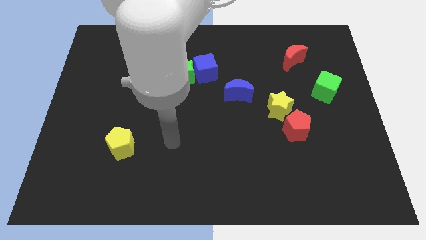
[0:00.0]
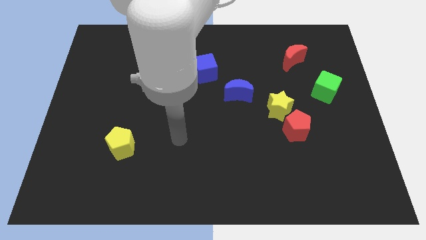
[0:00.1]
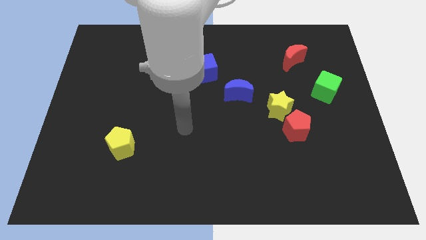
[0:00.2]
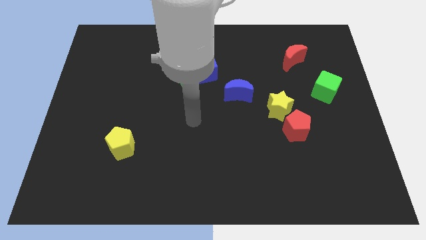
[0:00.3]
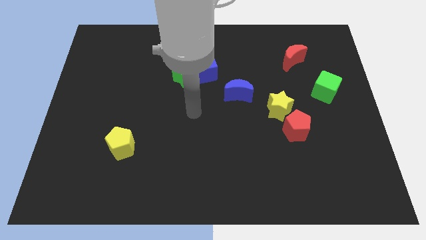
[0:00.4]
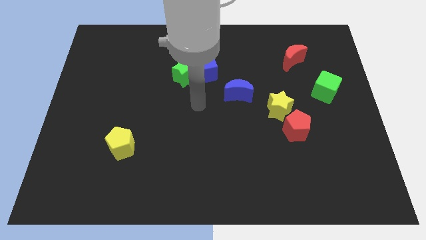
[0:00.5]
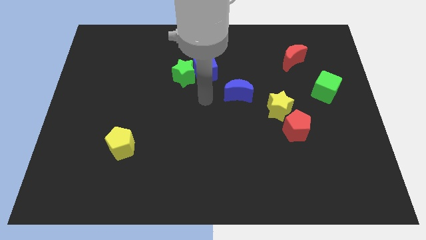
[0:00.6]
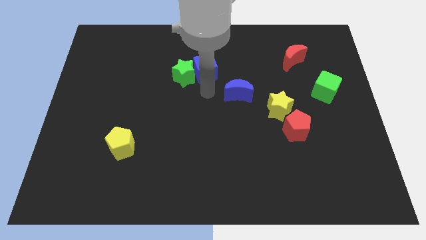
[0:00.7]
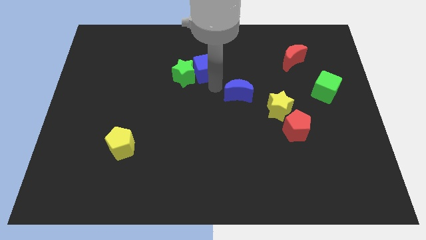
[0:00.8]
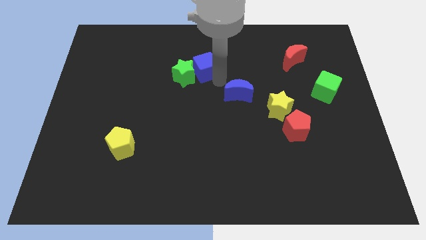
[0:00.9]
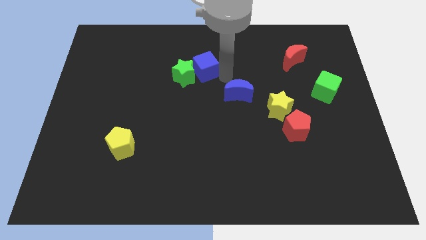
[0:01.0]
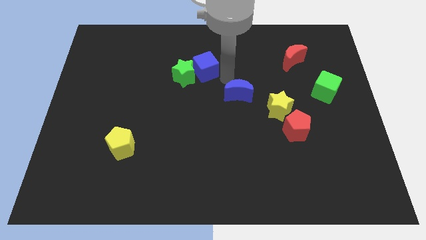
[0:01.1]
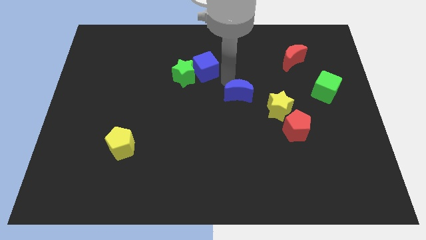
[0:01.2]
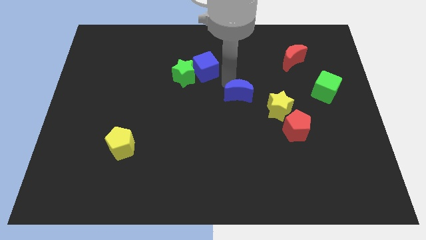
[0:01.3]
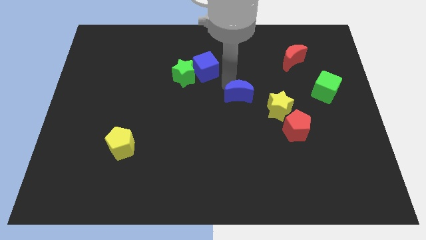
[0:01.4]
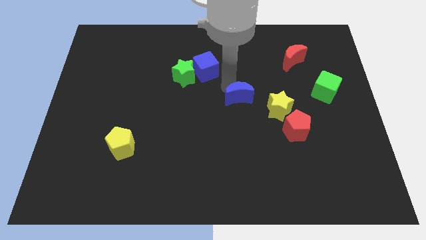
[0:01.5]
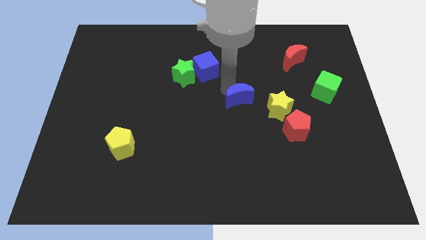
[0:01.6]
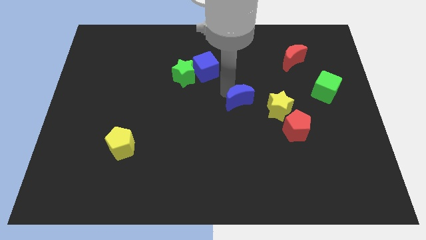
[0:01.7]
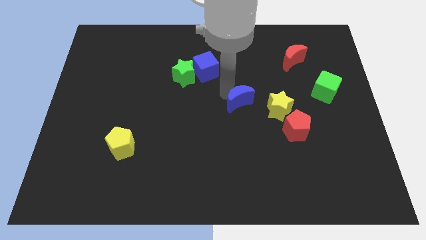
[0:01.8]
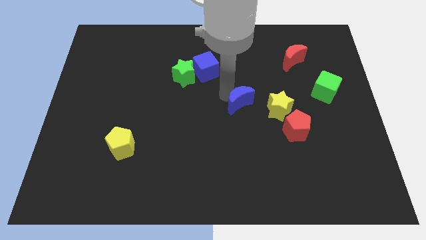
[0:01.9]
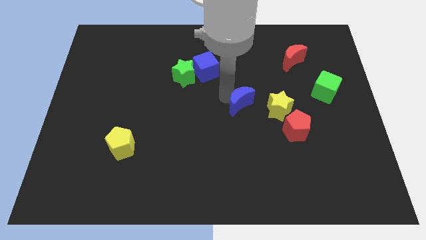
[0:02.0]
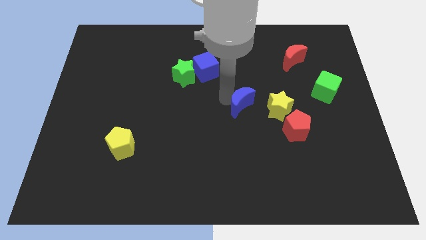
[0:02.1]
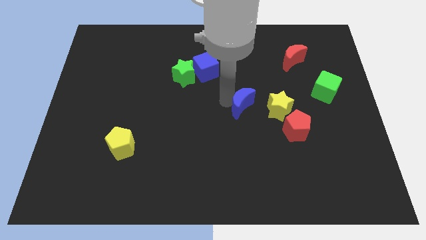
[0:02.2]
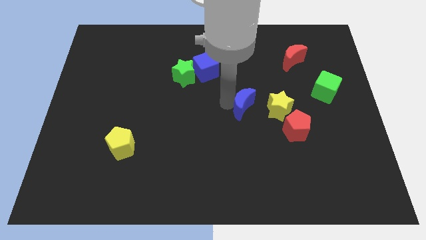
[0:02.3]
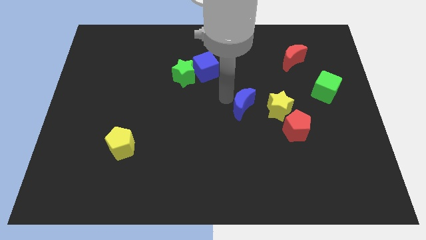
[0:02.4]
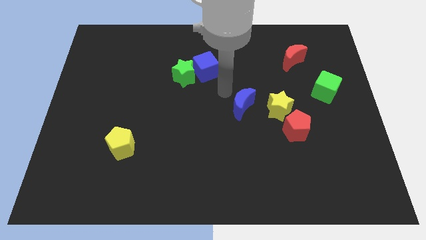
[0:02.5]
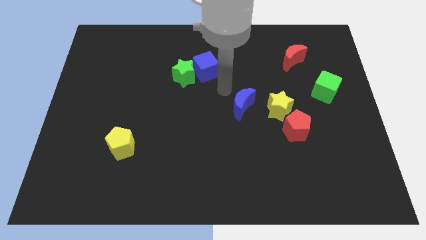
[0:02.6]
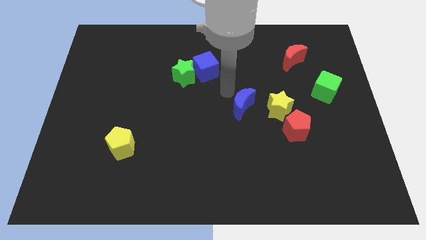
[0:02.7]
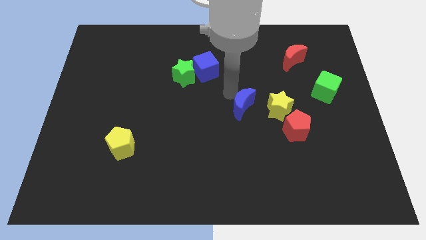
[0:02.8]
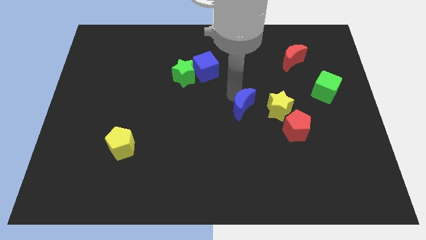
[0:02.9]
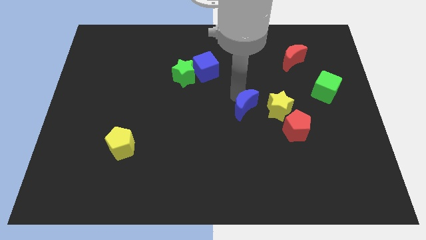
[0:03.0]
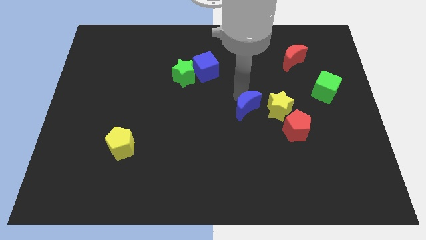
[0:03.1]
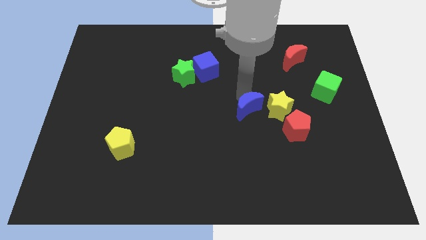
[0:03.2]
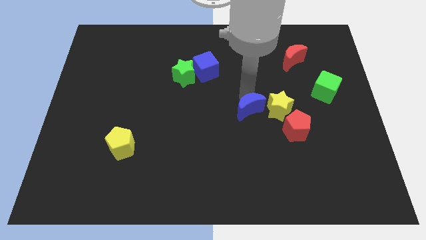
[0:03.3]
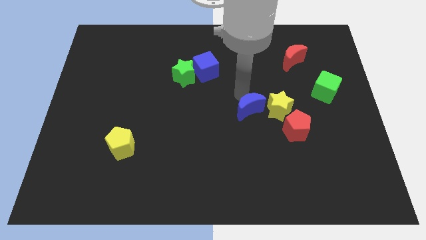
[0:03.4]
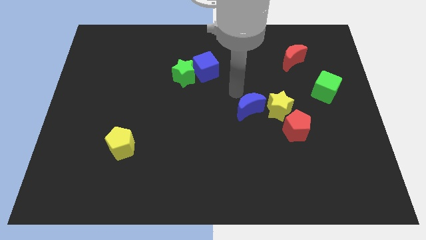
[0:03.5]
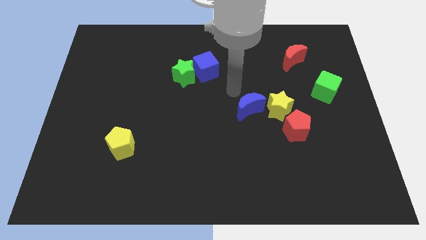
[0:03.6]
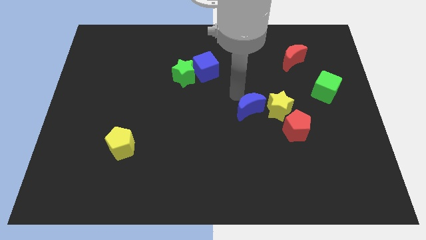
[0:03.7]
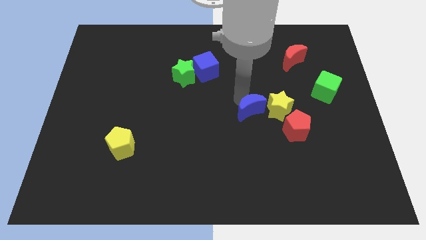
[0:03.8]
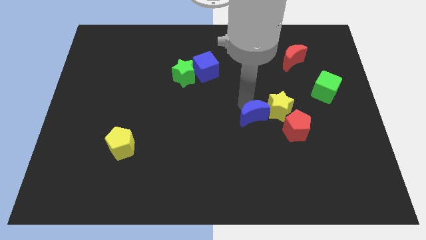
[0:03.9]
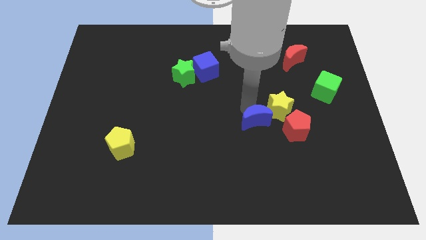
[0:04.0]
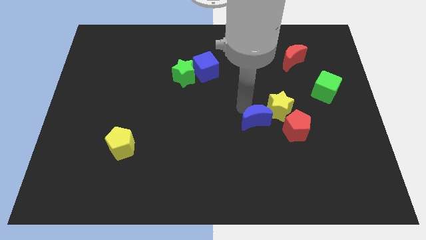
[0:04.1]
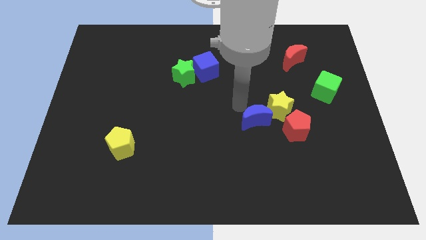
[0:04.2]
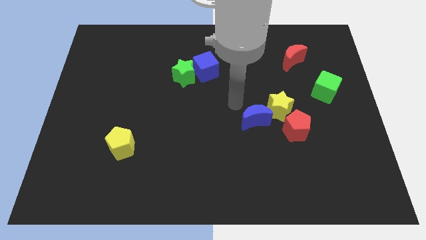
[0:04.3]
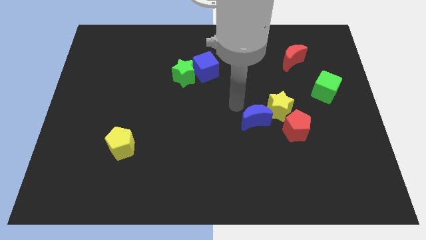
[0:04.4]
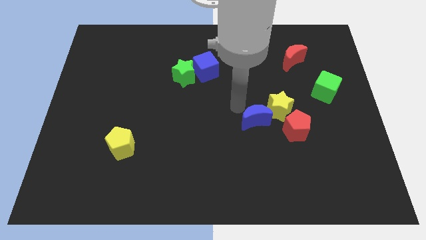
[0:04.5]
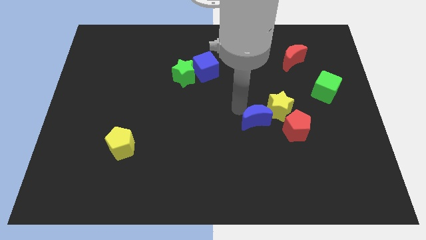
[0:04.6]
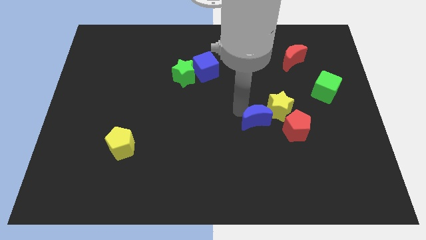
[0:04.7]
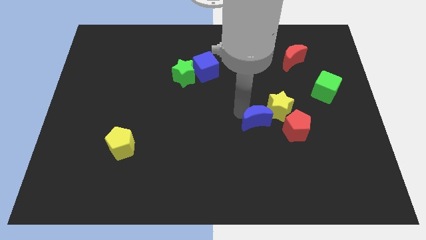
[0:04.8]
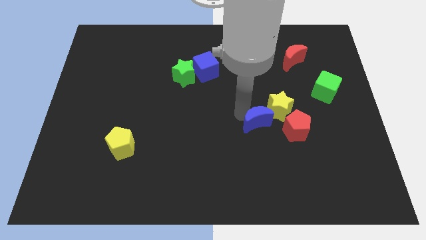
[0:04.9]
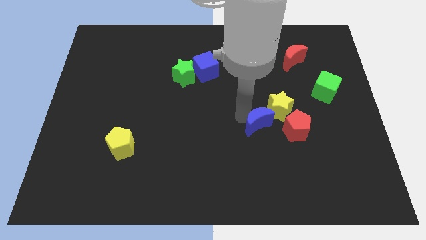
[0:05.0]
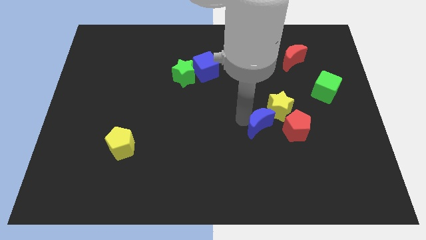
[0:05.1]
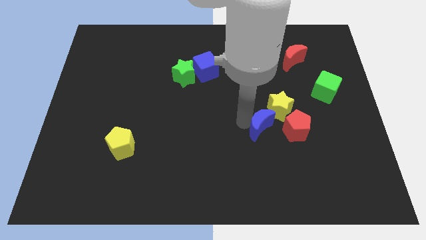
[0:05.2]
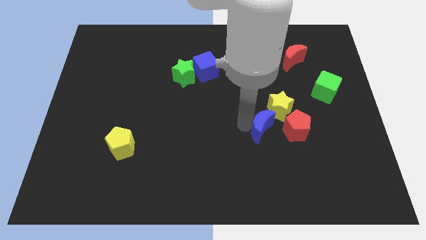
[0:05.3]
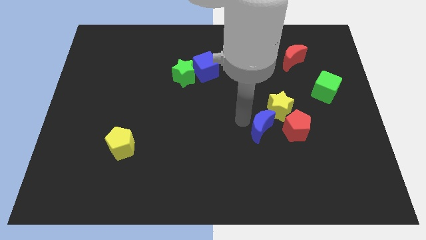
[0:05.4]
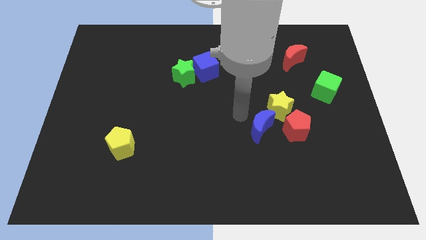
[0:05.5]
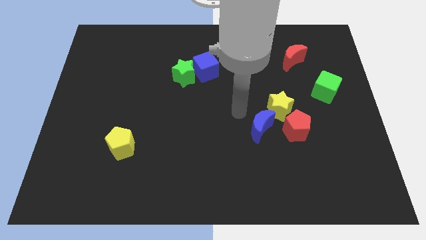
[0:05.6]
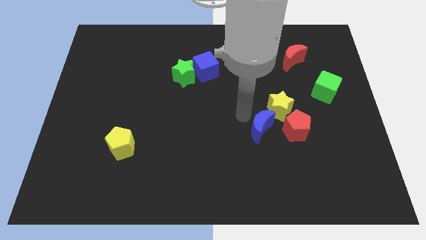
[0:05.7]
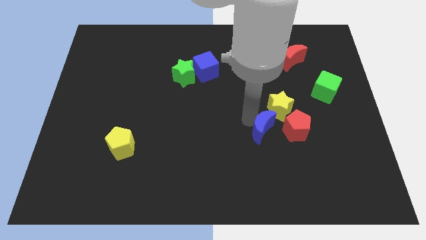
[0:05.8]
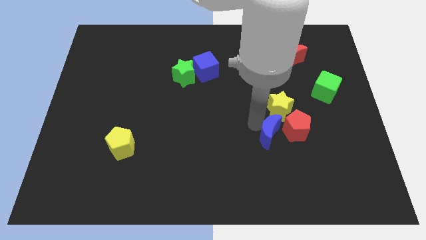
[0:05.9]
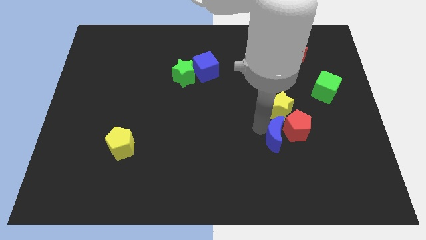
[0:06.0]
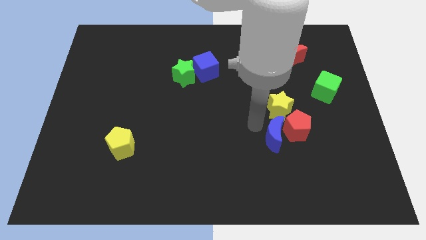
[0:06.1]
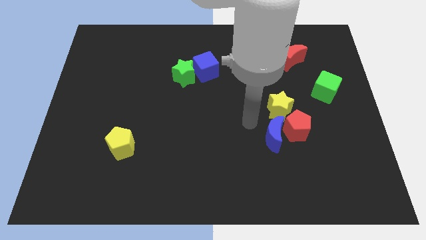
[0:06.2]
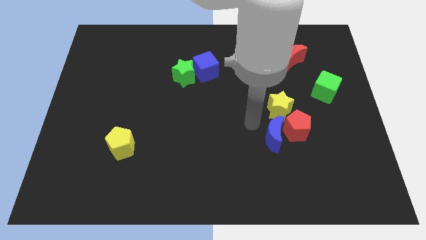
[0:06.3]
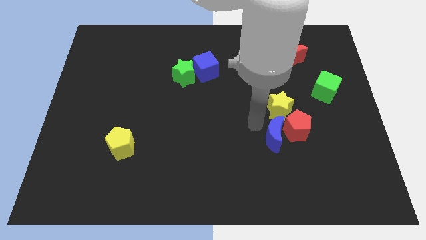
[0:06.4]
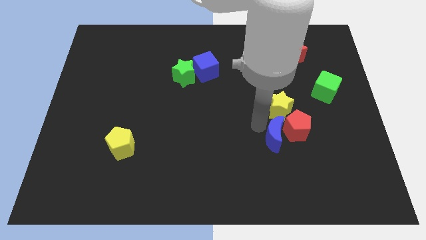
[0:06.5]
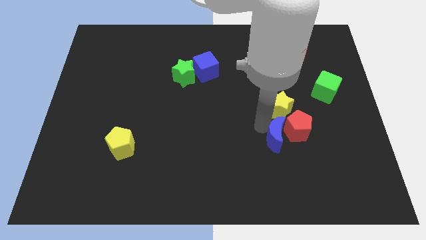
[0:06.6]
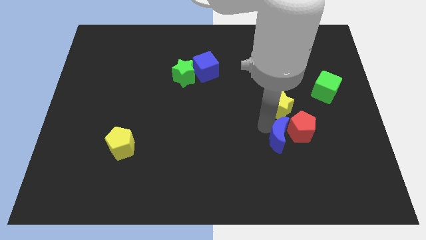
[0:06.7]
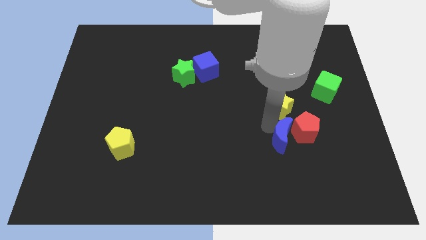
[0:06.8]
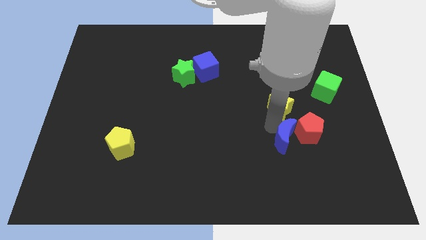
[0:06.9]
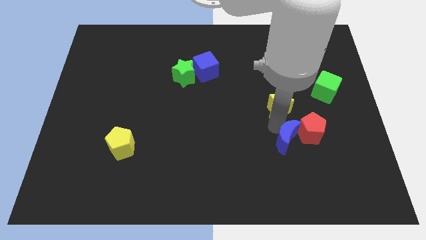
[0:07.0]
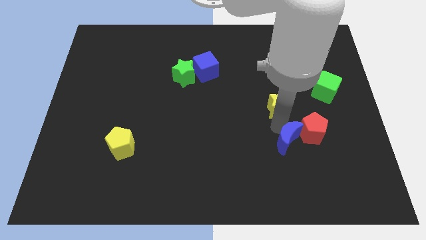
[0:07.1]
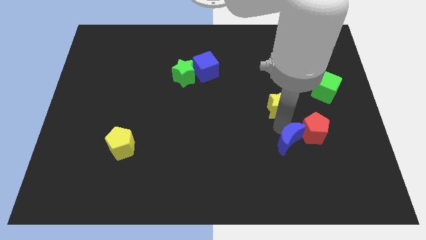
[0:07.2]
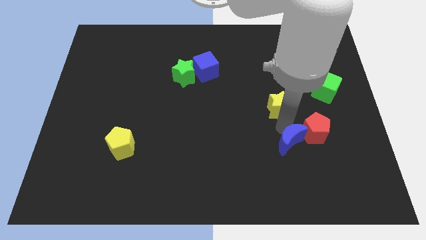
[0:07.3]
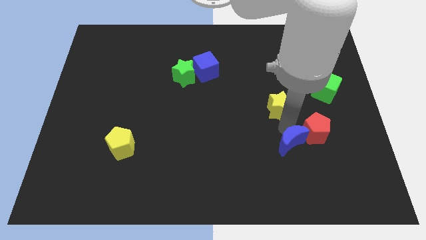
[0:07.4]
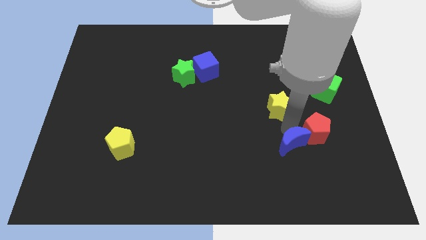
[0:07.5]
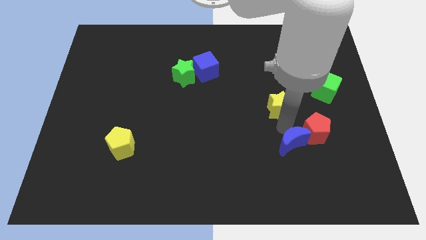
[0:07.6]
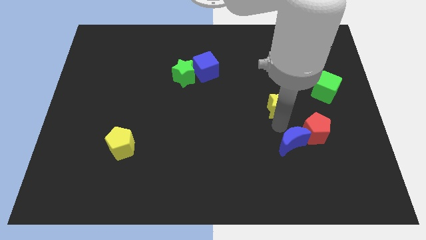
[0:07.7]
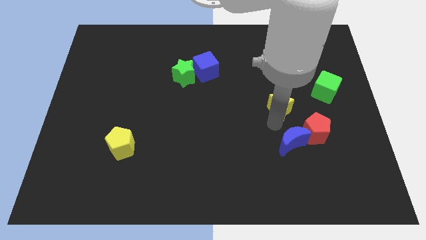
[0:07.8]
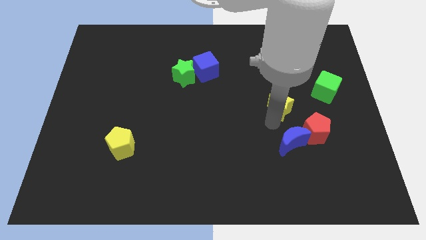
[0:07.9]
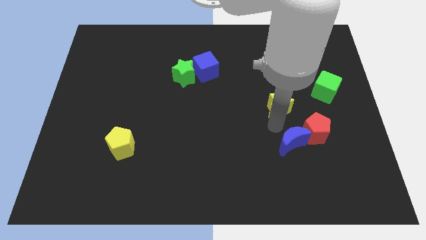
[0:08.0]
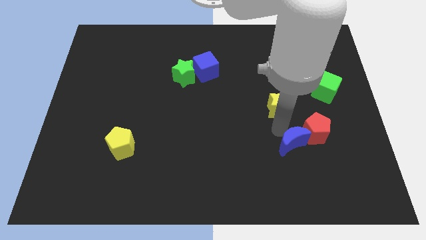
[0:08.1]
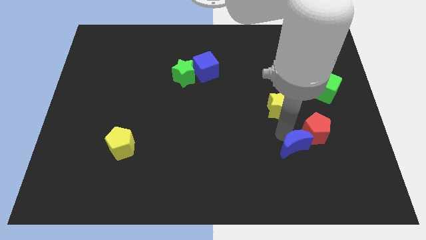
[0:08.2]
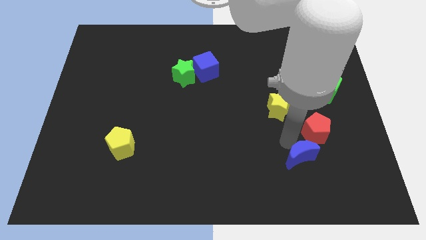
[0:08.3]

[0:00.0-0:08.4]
move the blue moon diagonally downwards and to the right
